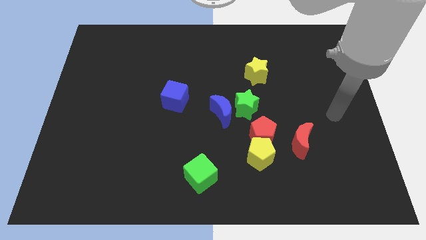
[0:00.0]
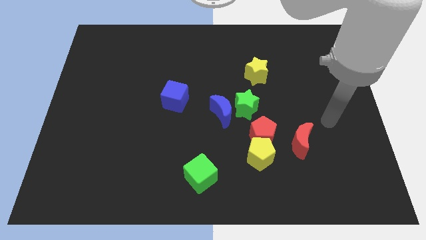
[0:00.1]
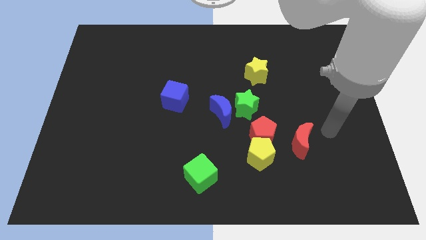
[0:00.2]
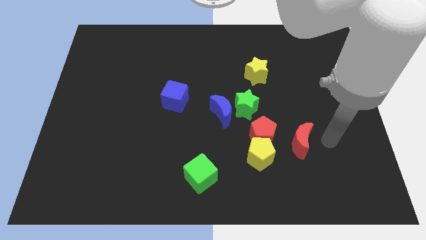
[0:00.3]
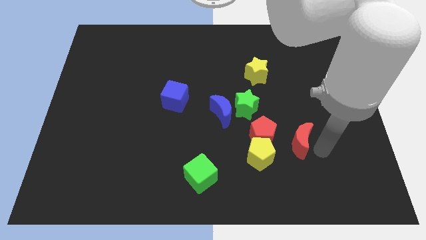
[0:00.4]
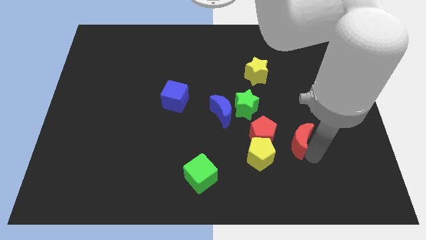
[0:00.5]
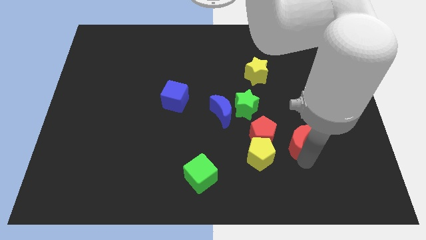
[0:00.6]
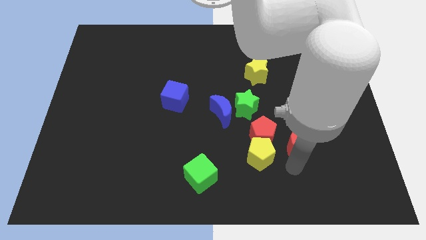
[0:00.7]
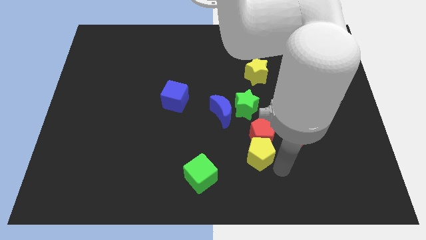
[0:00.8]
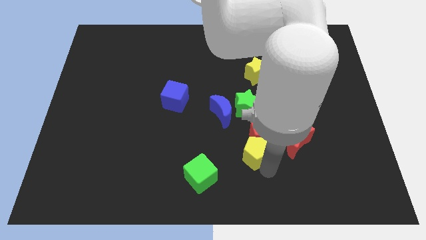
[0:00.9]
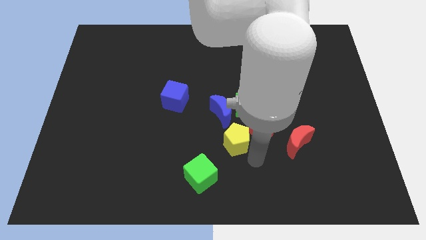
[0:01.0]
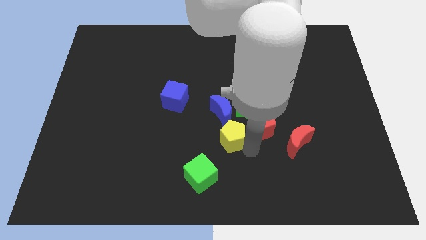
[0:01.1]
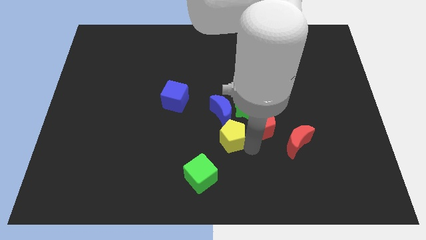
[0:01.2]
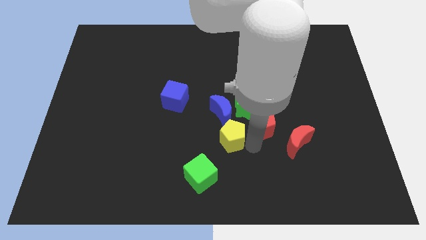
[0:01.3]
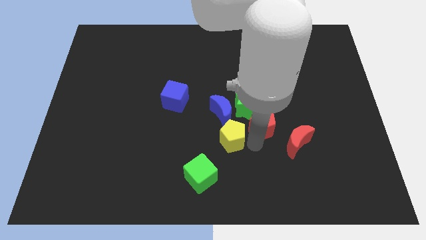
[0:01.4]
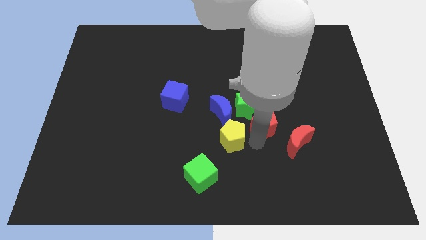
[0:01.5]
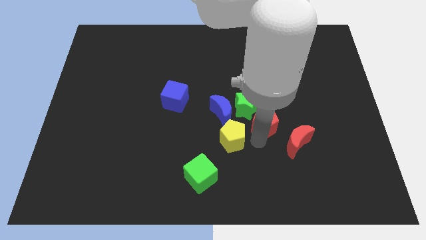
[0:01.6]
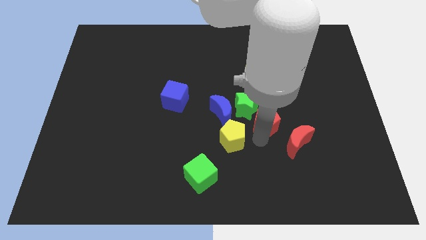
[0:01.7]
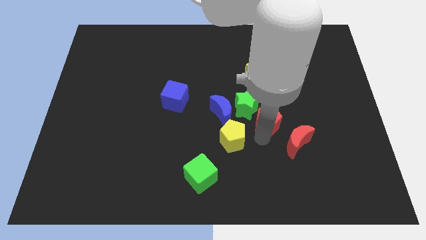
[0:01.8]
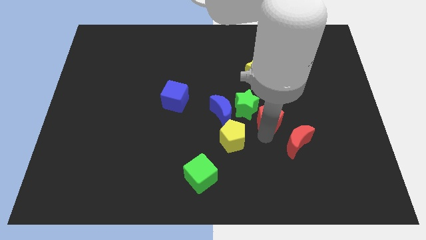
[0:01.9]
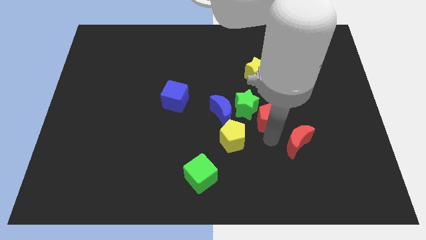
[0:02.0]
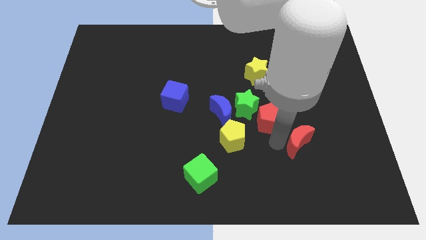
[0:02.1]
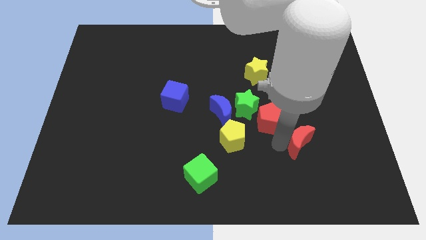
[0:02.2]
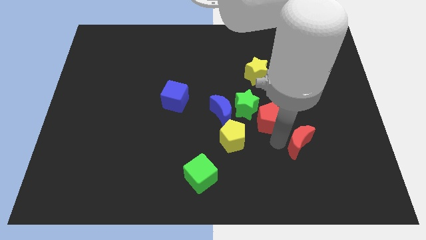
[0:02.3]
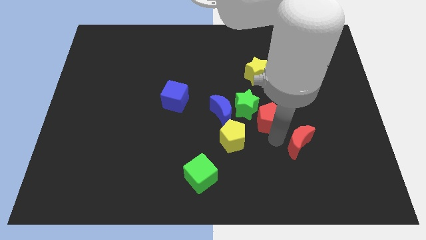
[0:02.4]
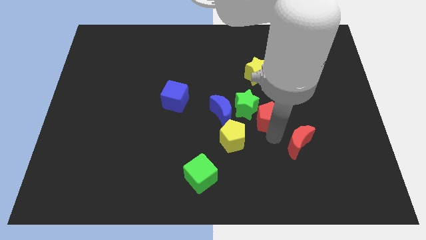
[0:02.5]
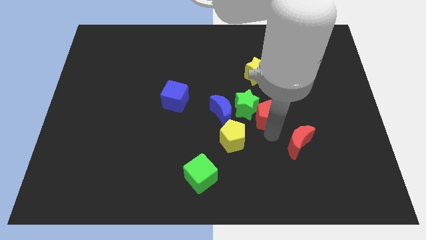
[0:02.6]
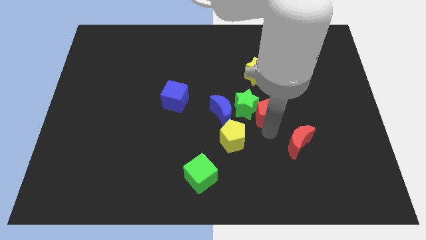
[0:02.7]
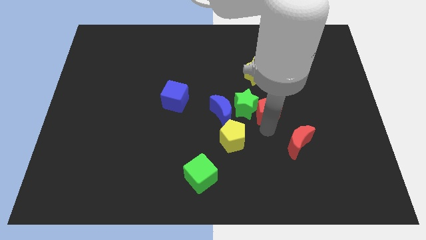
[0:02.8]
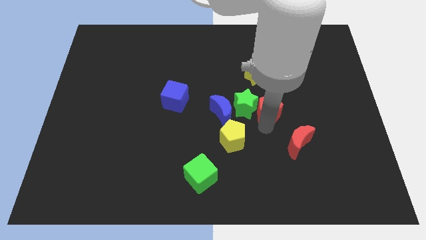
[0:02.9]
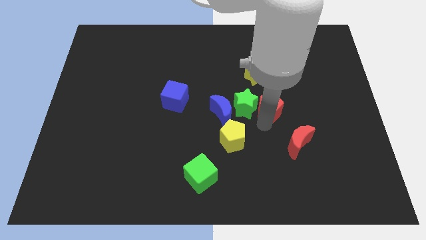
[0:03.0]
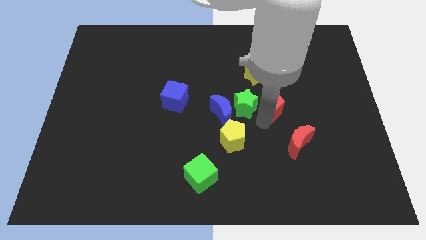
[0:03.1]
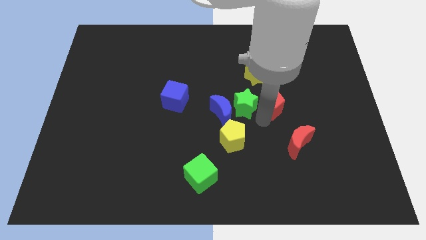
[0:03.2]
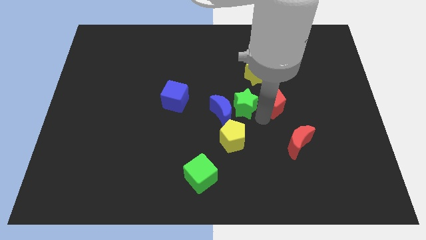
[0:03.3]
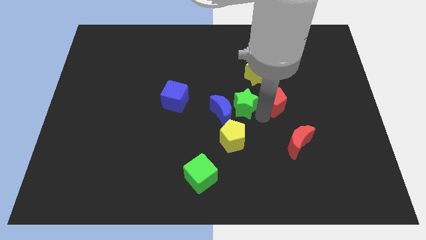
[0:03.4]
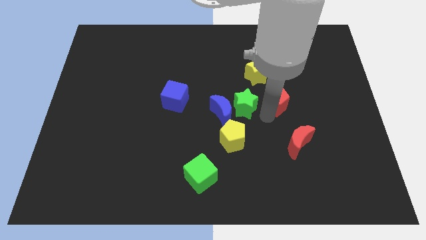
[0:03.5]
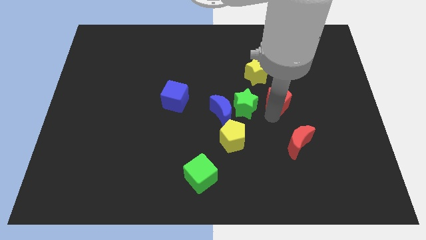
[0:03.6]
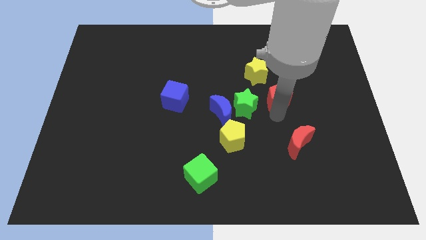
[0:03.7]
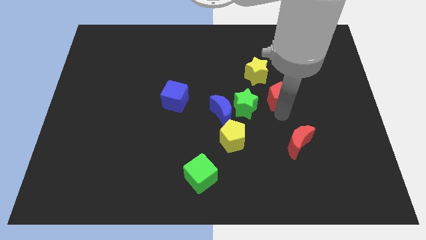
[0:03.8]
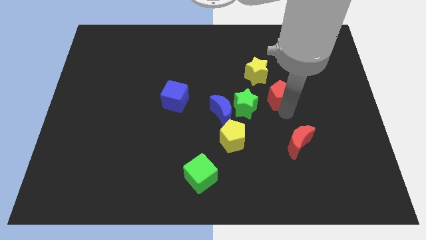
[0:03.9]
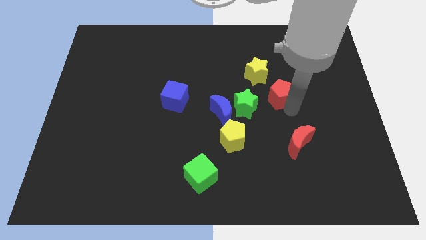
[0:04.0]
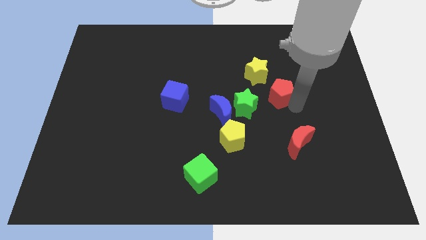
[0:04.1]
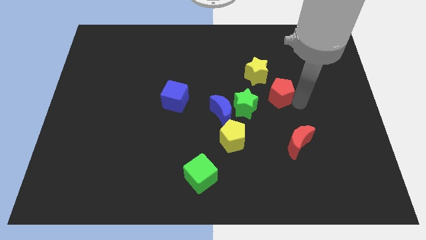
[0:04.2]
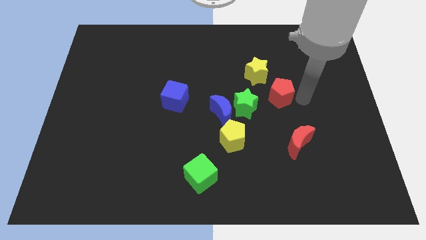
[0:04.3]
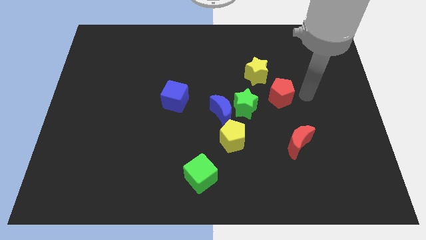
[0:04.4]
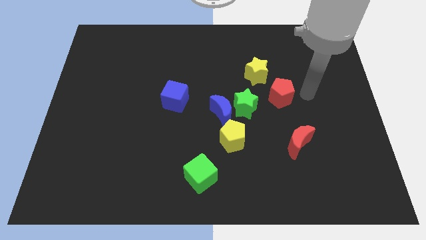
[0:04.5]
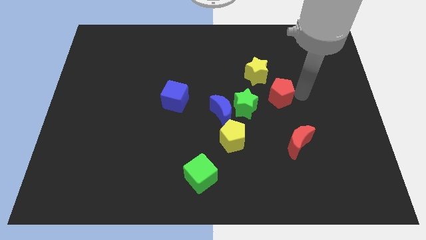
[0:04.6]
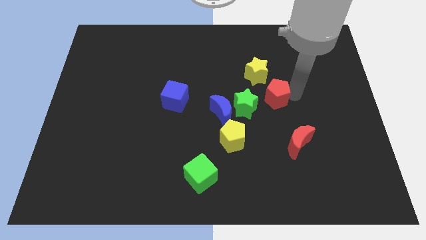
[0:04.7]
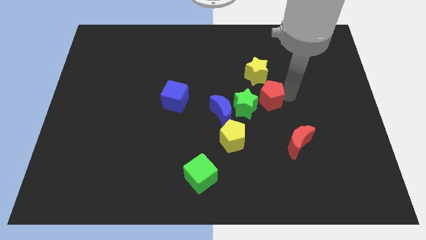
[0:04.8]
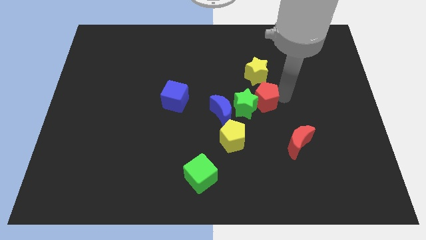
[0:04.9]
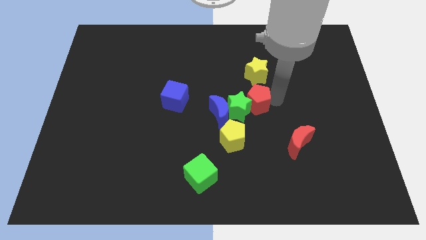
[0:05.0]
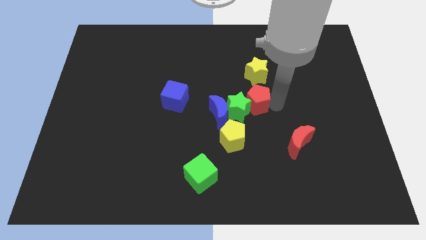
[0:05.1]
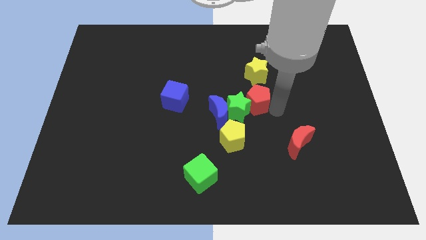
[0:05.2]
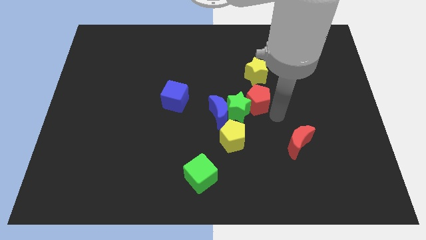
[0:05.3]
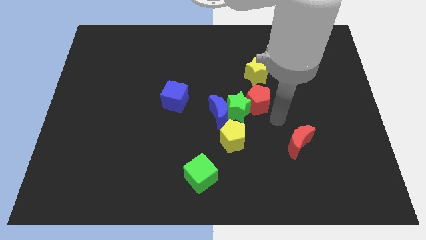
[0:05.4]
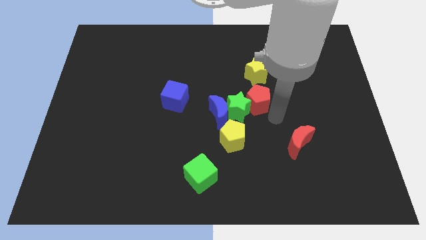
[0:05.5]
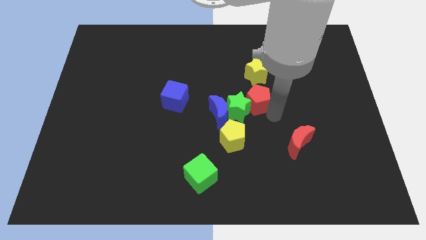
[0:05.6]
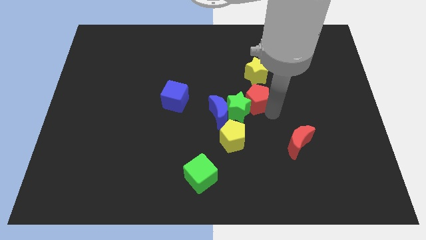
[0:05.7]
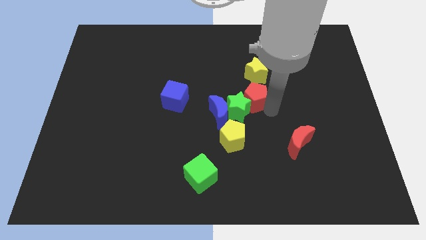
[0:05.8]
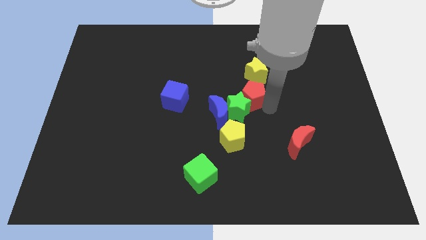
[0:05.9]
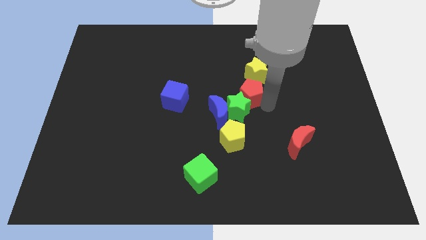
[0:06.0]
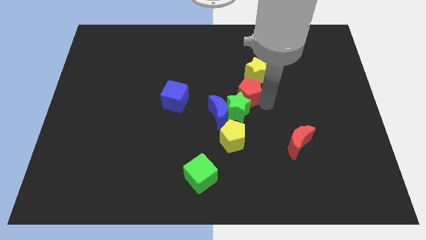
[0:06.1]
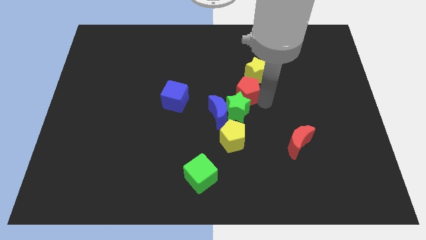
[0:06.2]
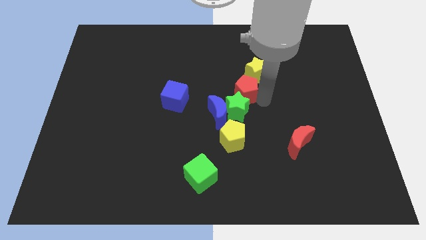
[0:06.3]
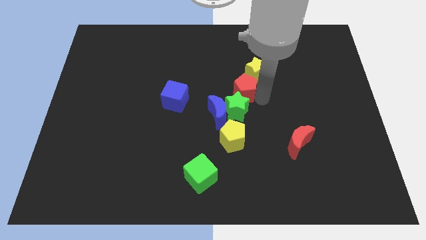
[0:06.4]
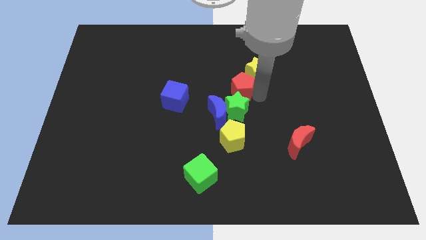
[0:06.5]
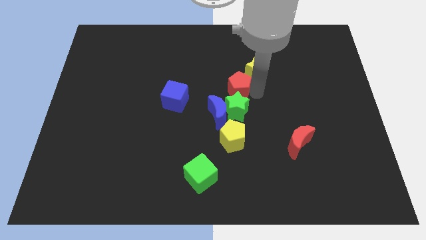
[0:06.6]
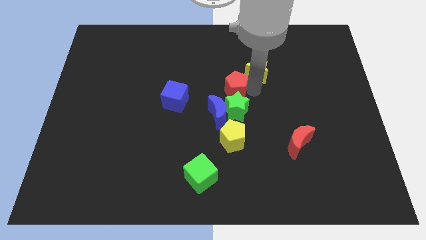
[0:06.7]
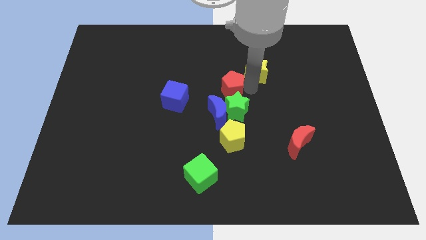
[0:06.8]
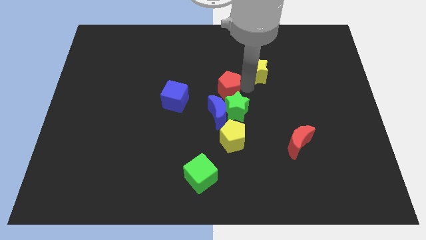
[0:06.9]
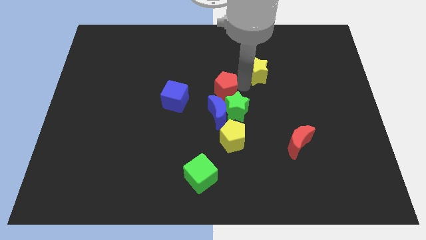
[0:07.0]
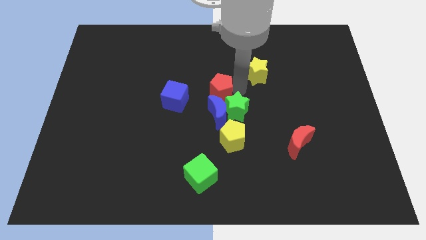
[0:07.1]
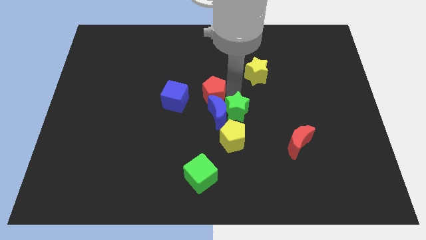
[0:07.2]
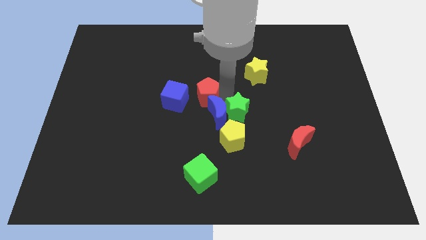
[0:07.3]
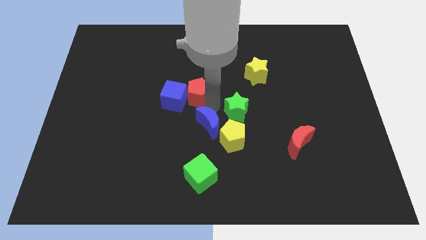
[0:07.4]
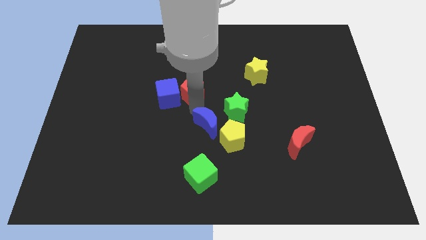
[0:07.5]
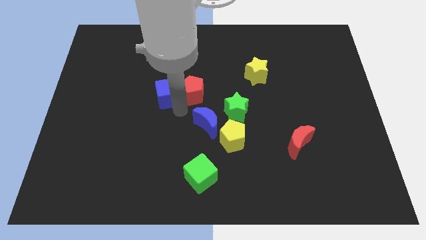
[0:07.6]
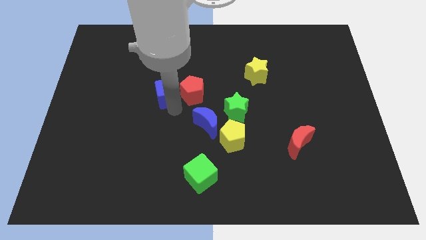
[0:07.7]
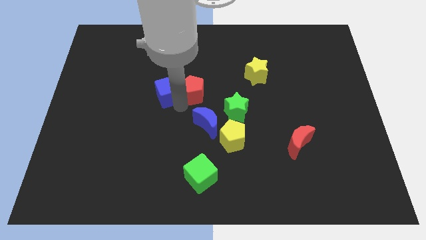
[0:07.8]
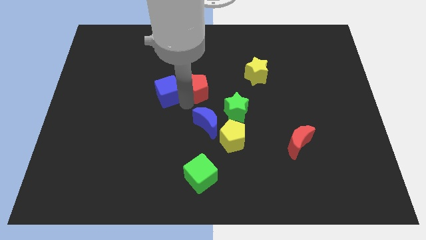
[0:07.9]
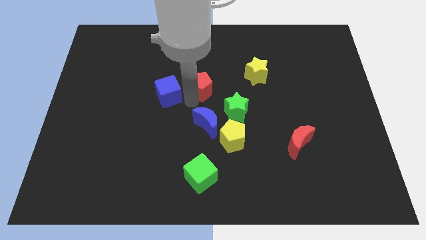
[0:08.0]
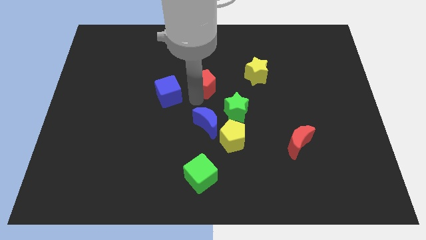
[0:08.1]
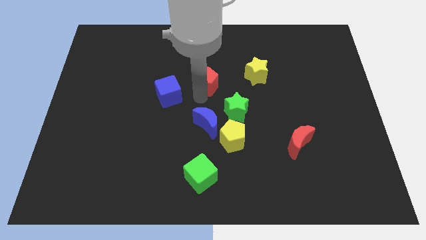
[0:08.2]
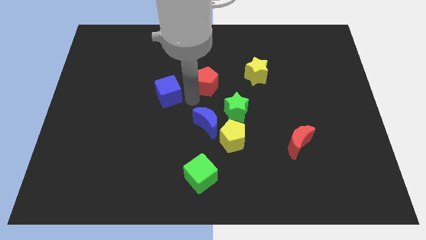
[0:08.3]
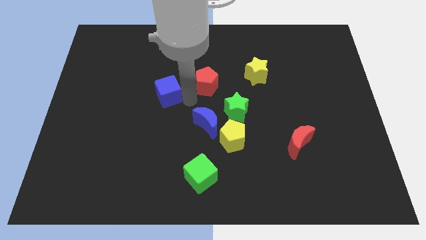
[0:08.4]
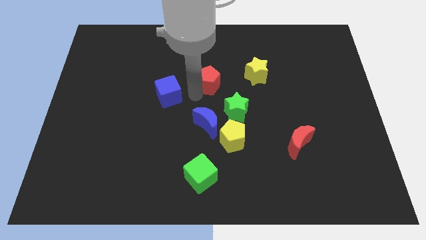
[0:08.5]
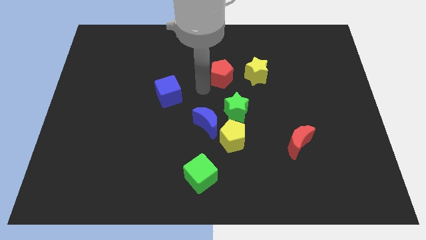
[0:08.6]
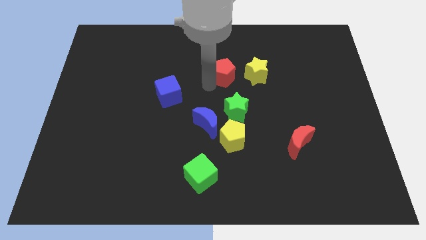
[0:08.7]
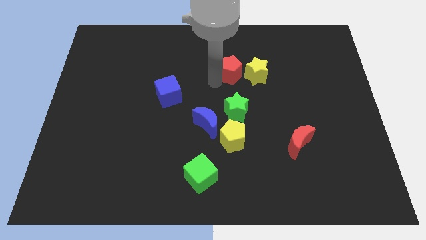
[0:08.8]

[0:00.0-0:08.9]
move the red pentagon diagonally up and to the left of the yellow star
